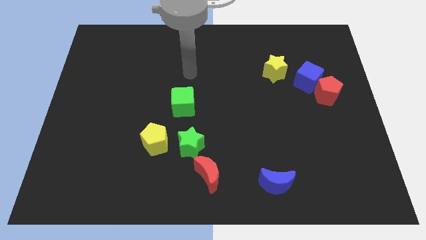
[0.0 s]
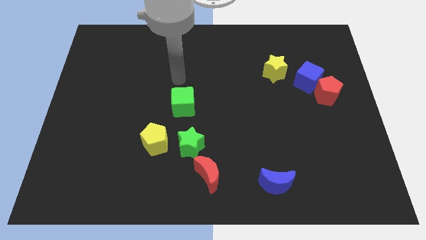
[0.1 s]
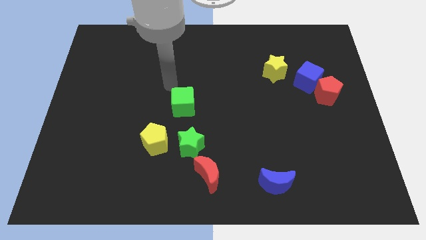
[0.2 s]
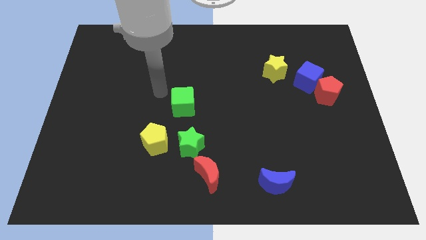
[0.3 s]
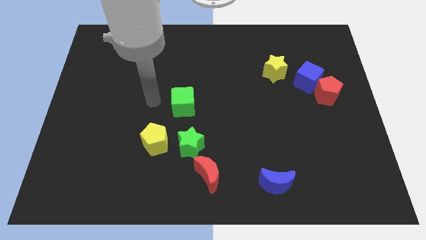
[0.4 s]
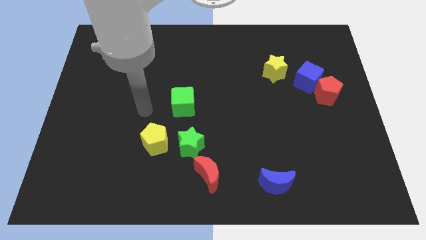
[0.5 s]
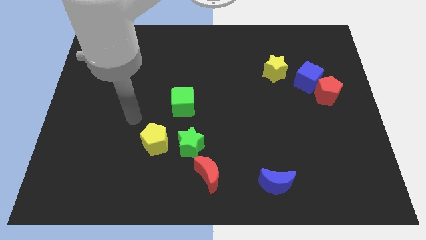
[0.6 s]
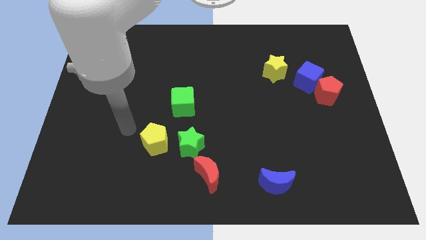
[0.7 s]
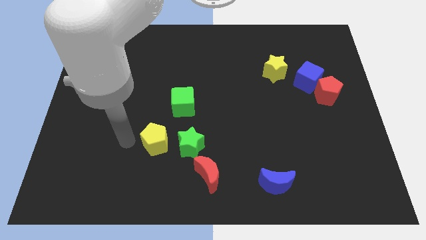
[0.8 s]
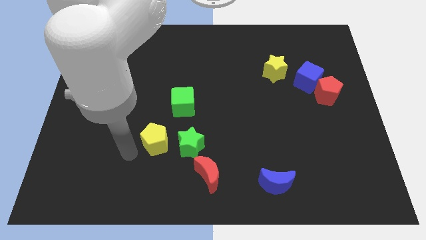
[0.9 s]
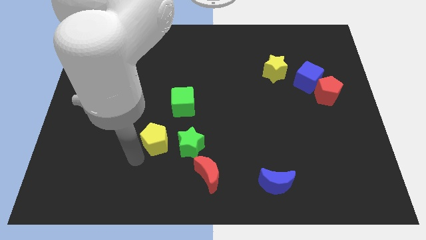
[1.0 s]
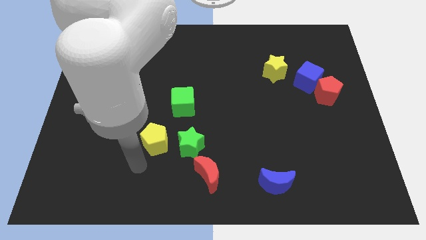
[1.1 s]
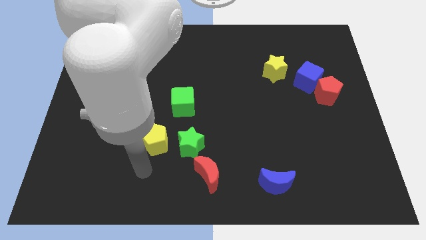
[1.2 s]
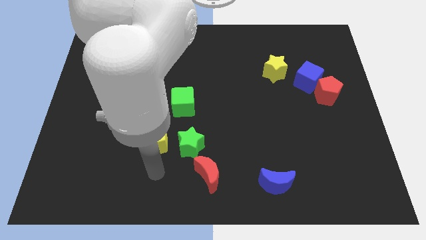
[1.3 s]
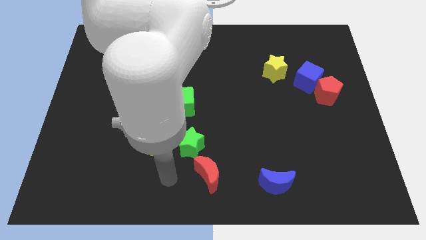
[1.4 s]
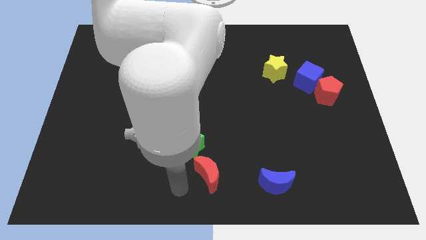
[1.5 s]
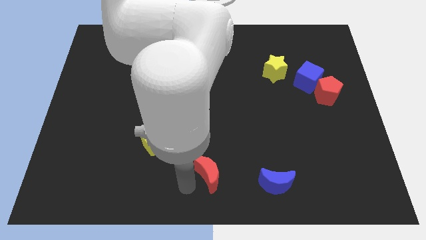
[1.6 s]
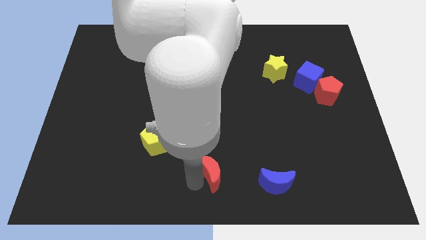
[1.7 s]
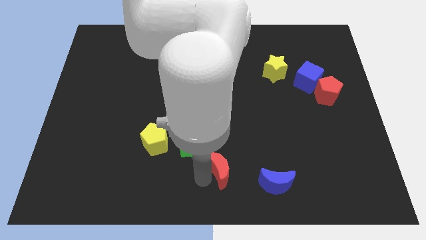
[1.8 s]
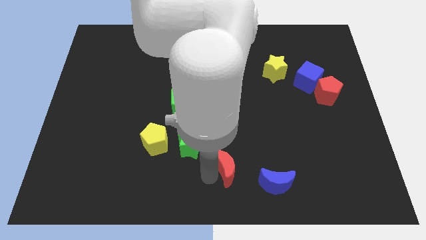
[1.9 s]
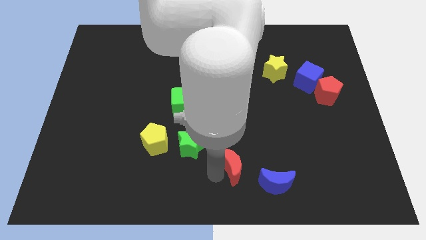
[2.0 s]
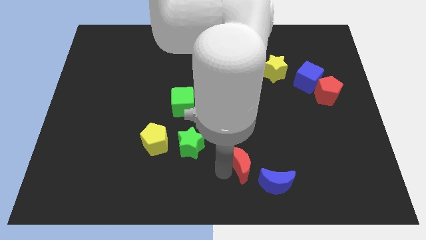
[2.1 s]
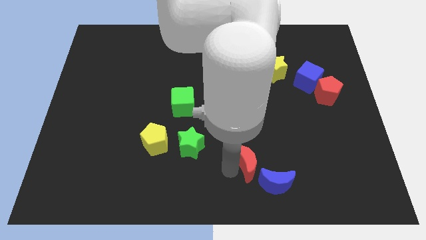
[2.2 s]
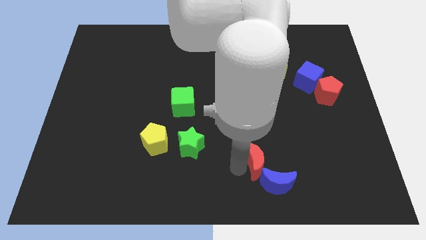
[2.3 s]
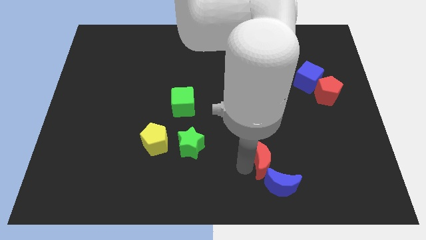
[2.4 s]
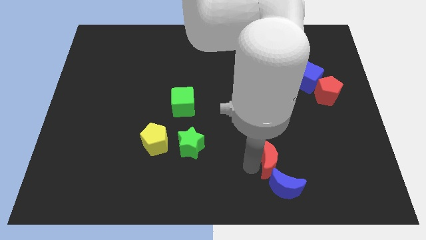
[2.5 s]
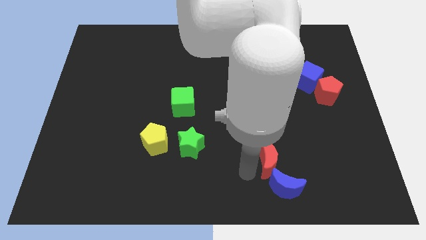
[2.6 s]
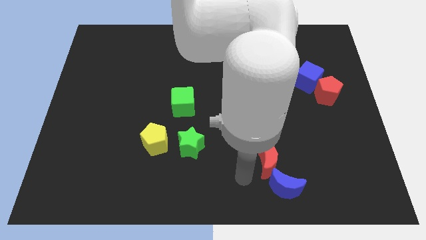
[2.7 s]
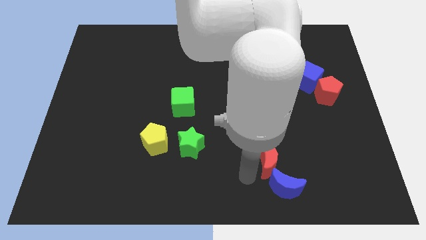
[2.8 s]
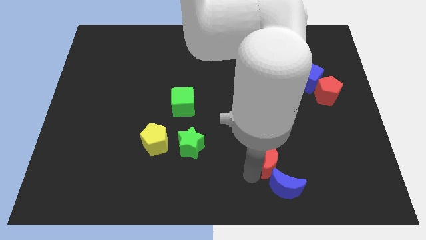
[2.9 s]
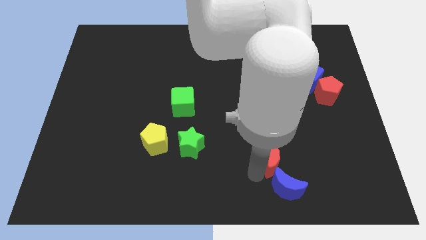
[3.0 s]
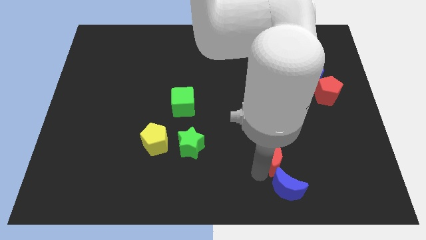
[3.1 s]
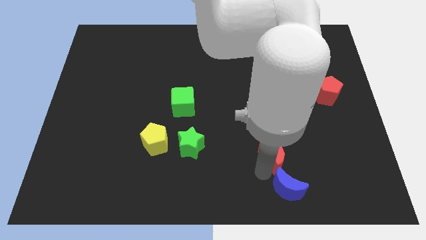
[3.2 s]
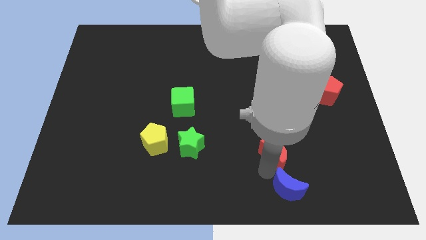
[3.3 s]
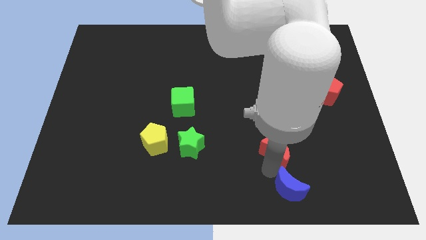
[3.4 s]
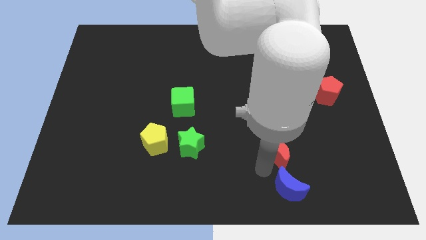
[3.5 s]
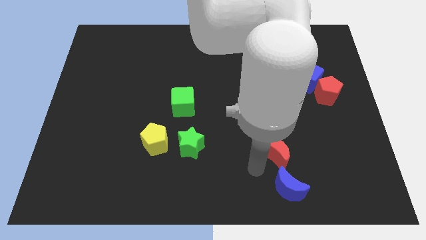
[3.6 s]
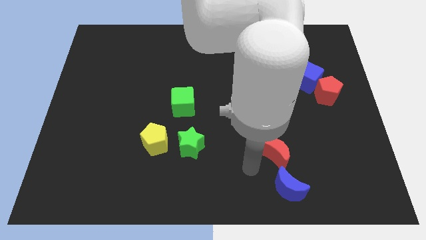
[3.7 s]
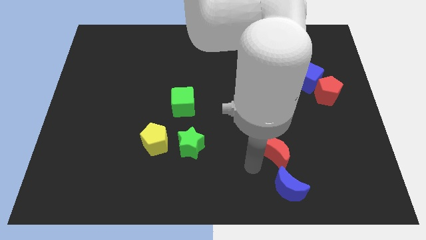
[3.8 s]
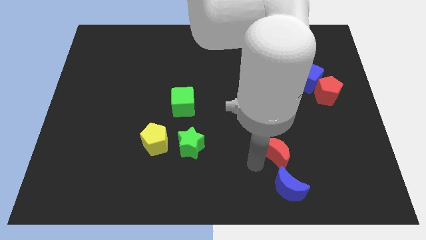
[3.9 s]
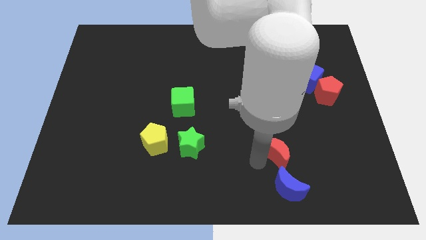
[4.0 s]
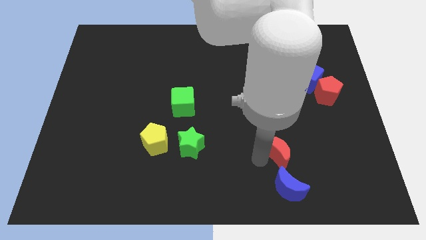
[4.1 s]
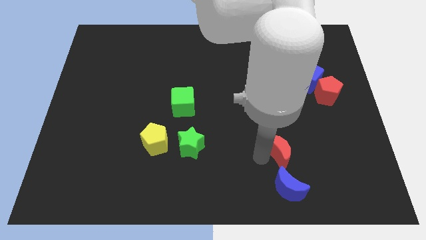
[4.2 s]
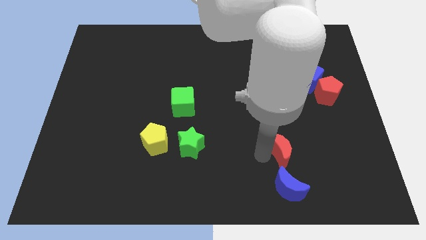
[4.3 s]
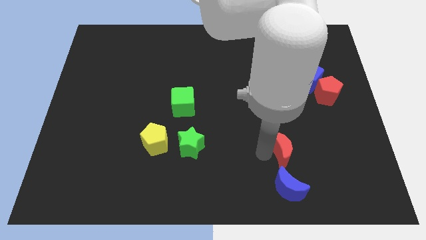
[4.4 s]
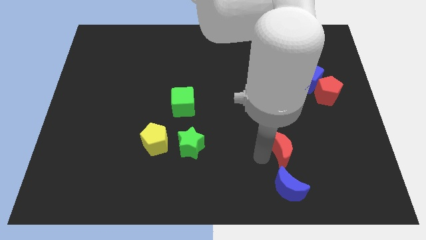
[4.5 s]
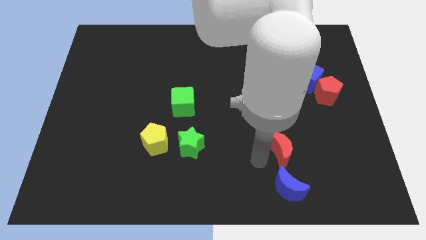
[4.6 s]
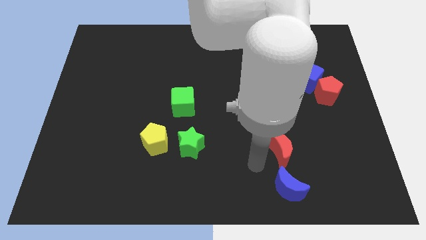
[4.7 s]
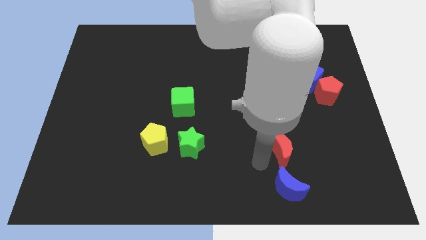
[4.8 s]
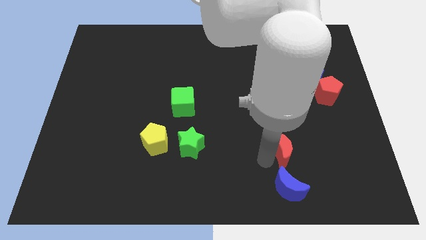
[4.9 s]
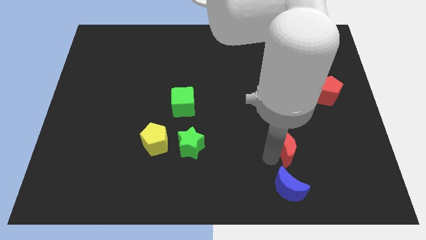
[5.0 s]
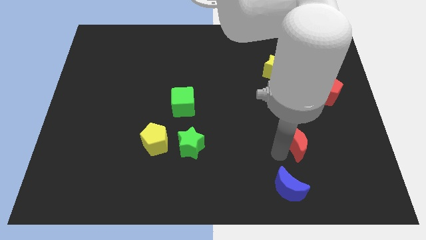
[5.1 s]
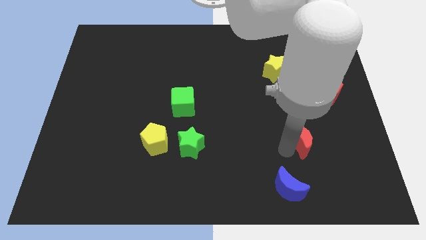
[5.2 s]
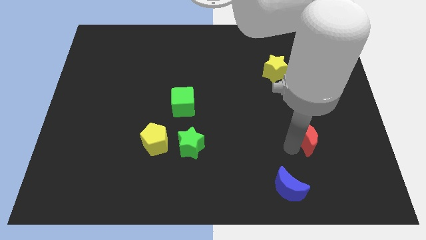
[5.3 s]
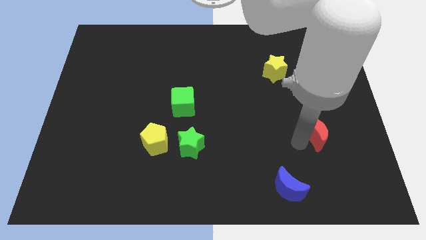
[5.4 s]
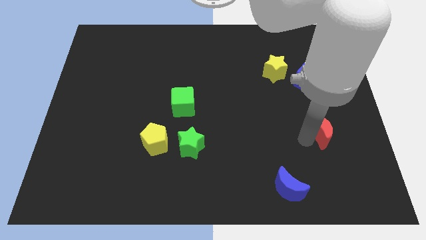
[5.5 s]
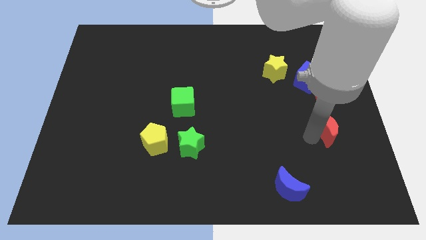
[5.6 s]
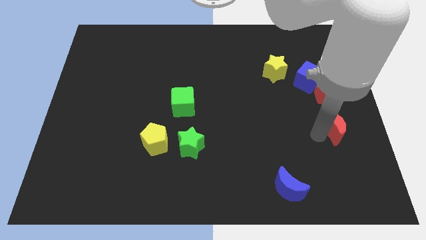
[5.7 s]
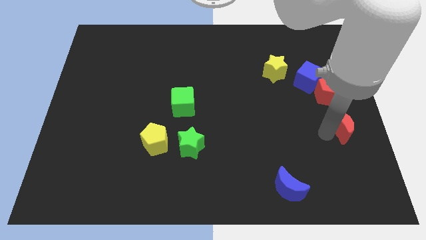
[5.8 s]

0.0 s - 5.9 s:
move the red moon to the right side

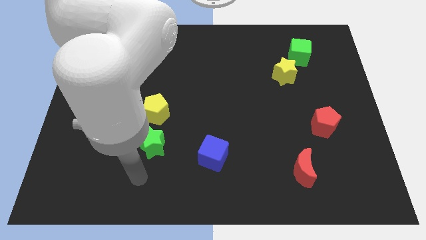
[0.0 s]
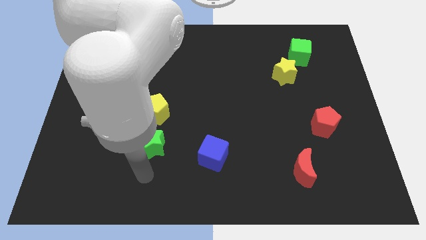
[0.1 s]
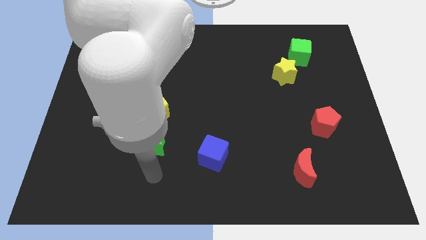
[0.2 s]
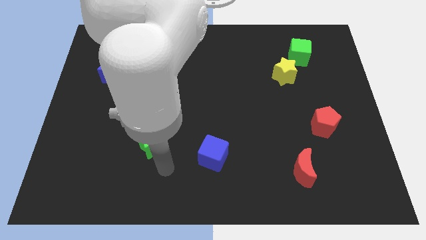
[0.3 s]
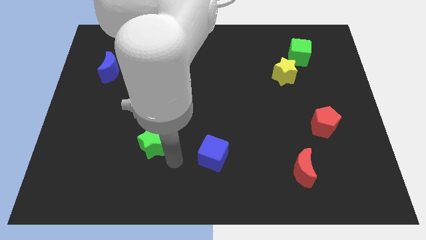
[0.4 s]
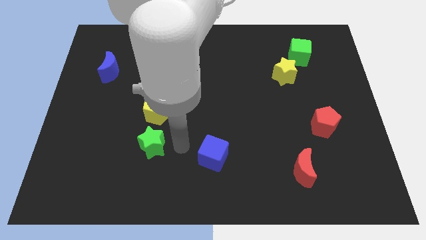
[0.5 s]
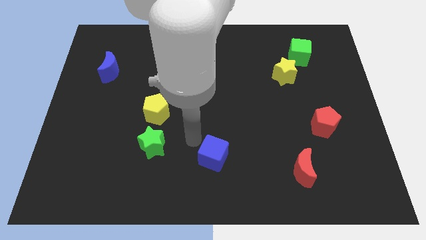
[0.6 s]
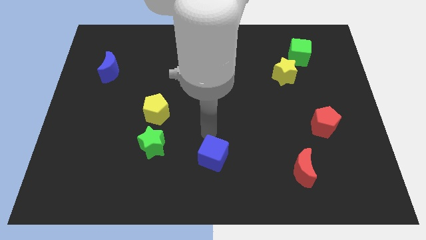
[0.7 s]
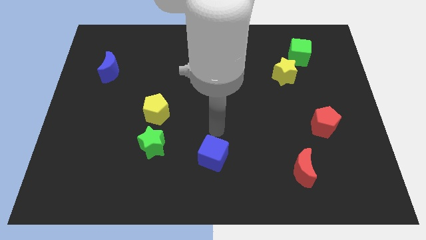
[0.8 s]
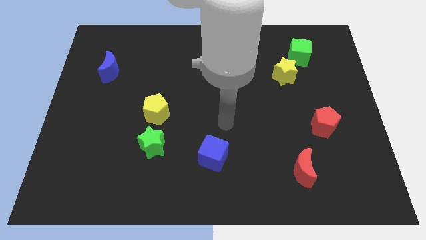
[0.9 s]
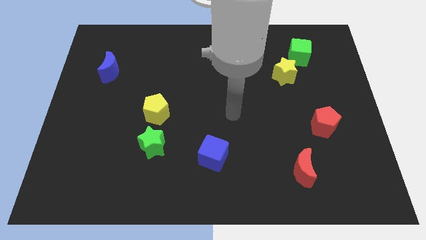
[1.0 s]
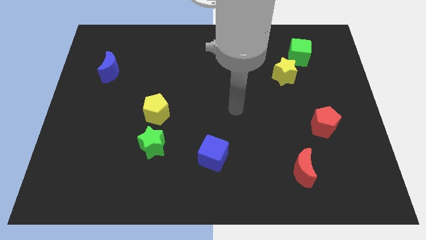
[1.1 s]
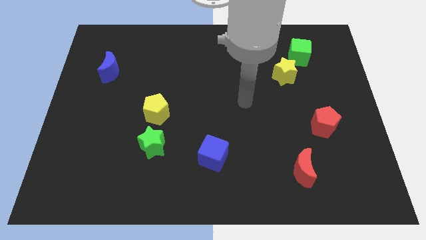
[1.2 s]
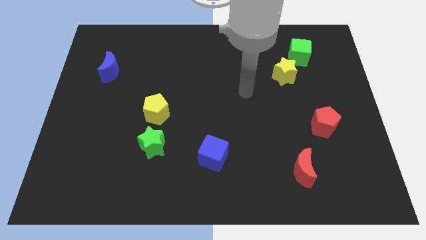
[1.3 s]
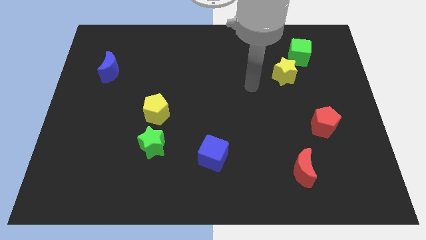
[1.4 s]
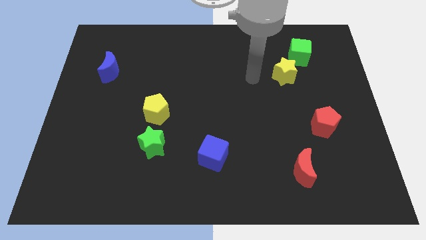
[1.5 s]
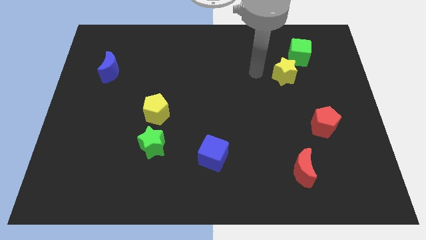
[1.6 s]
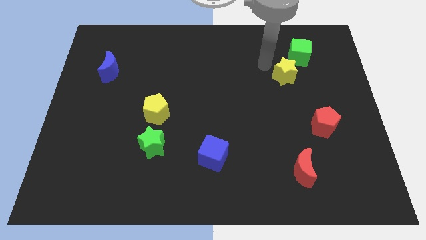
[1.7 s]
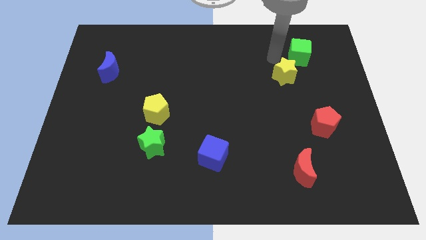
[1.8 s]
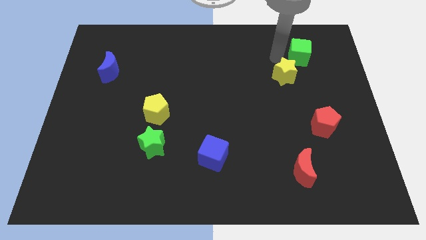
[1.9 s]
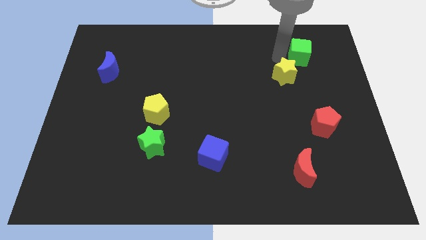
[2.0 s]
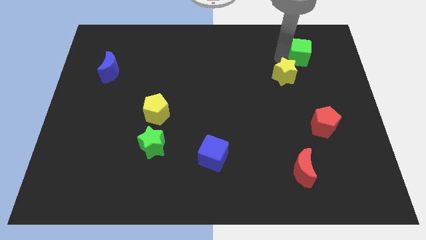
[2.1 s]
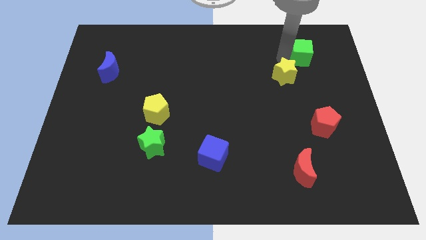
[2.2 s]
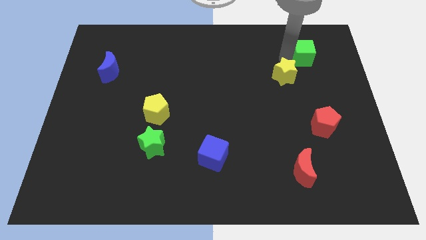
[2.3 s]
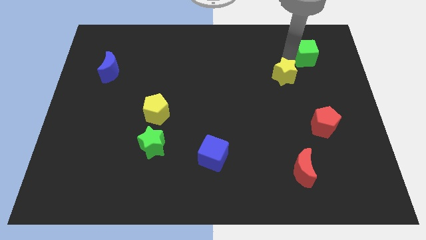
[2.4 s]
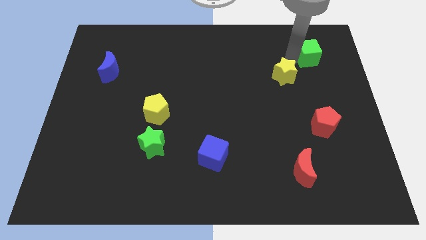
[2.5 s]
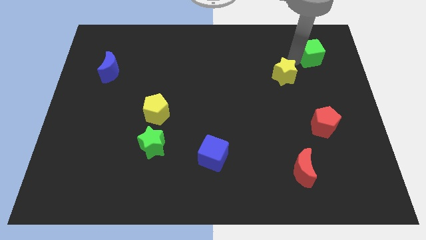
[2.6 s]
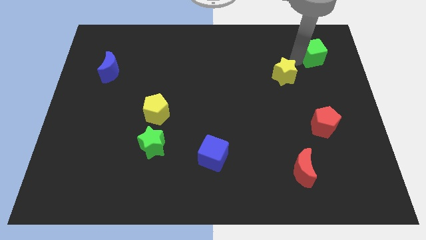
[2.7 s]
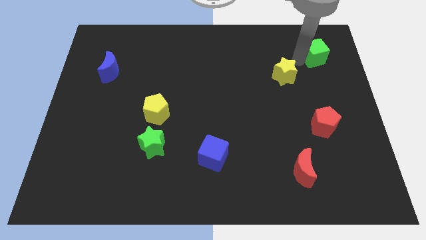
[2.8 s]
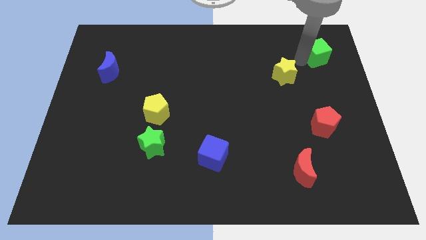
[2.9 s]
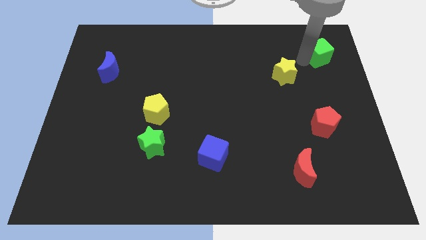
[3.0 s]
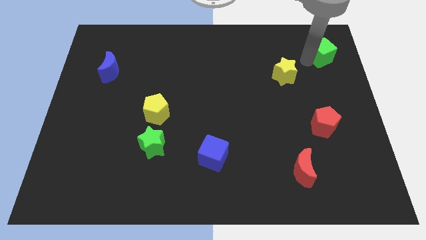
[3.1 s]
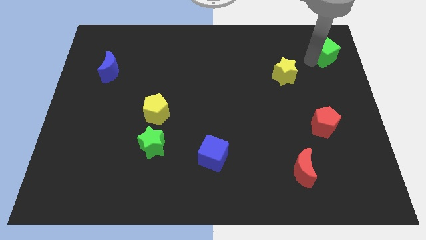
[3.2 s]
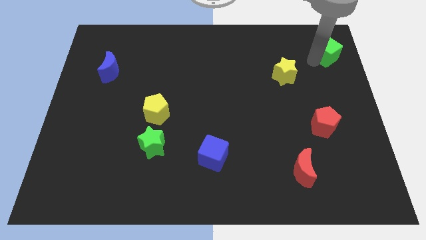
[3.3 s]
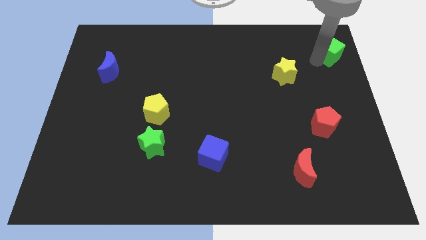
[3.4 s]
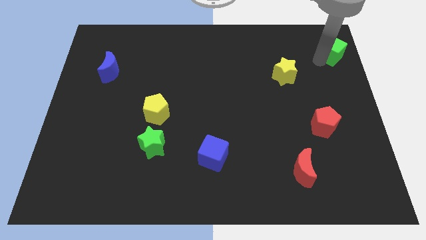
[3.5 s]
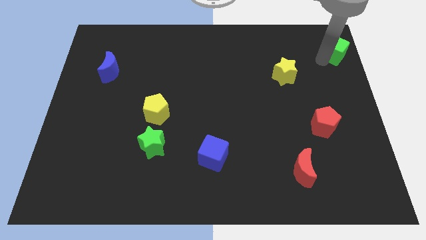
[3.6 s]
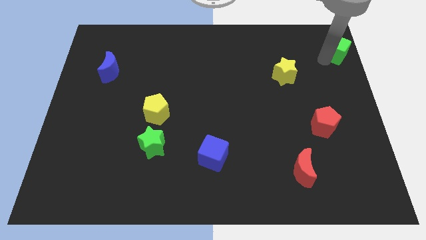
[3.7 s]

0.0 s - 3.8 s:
push the green cube to the top right corner
